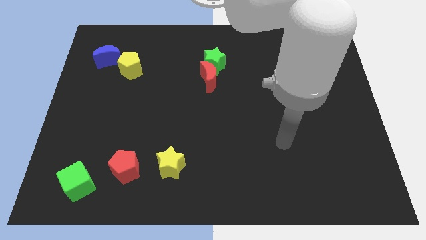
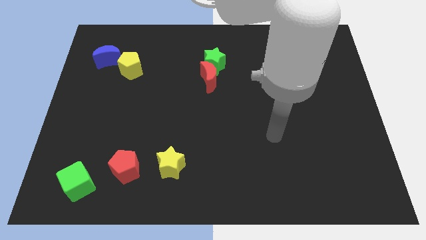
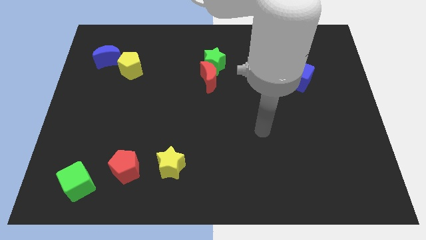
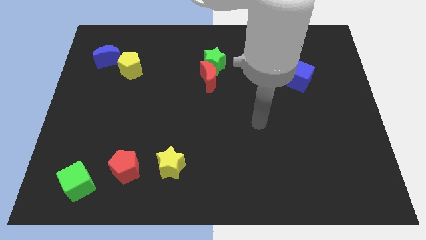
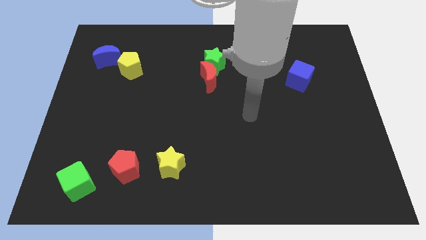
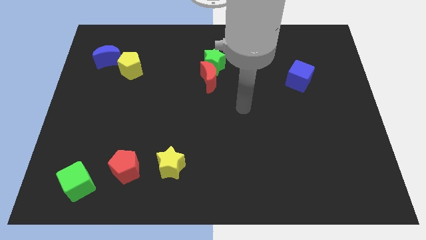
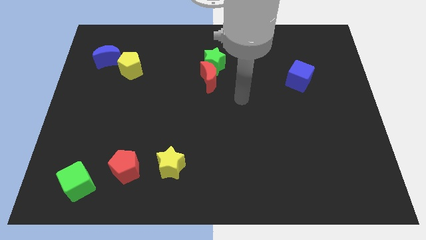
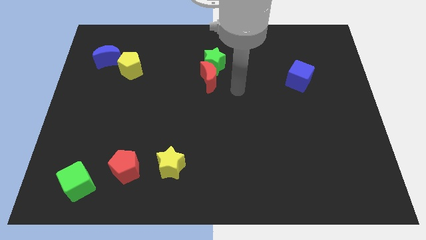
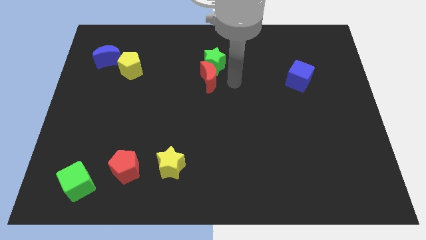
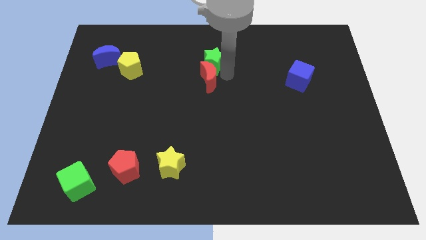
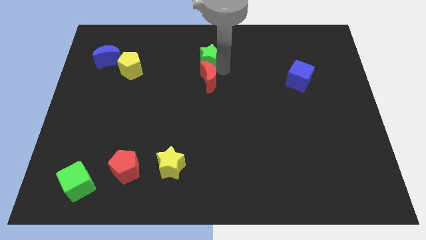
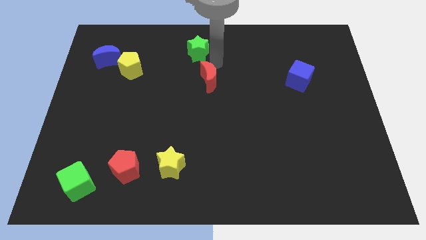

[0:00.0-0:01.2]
separate the red moon from the green star

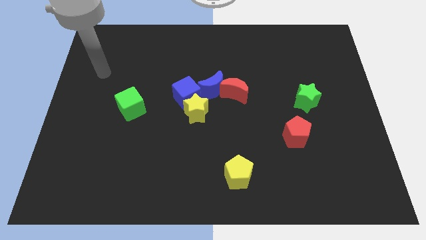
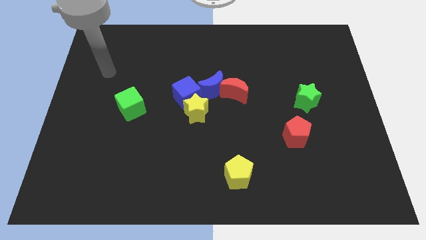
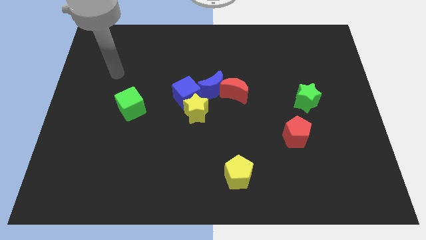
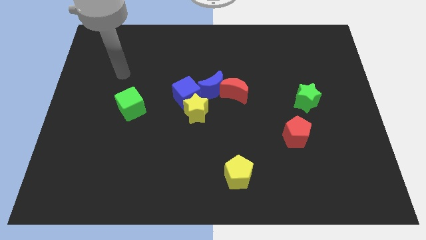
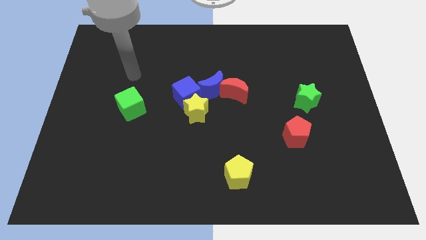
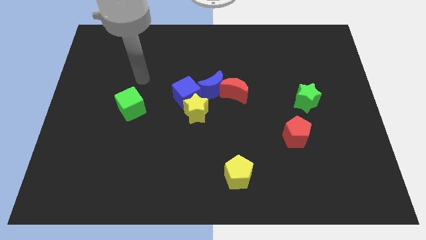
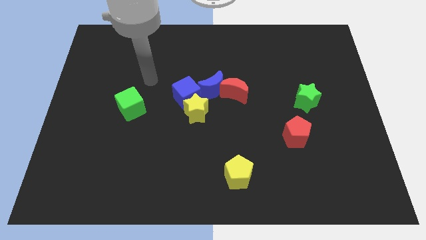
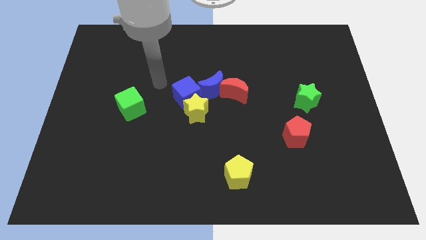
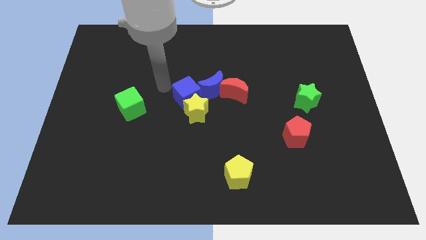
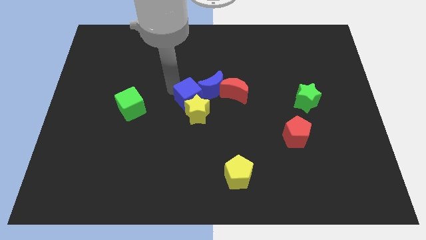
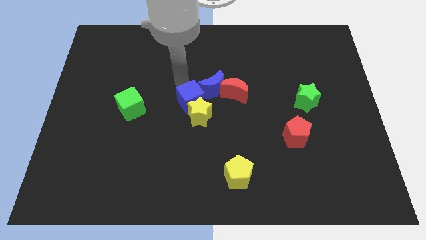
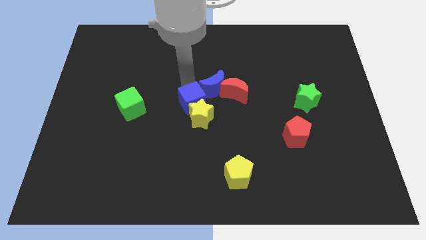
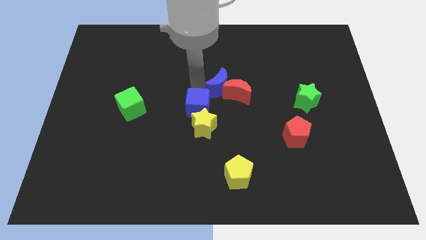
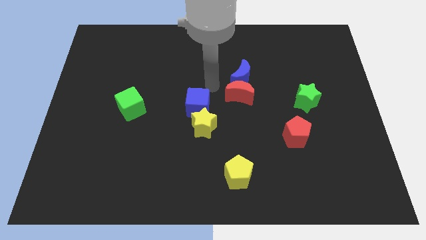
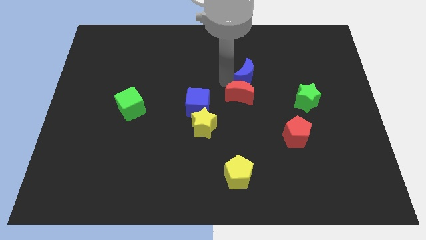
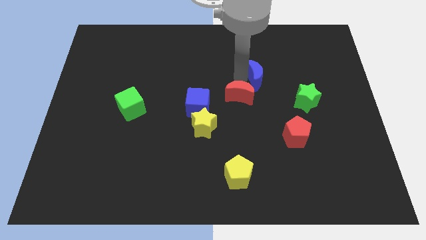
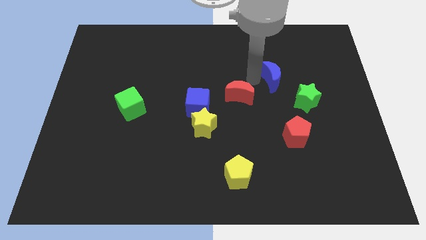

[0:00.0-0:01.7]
move the red moon away from the blue moon

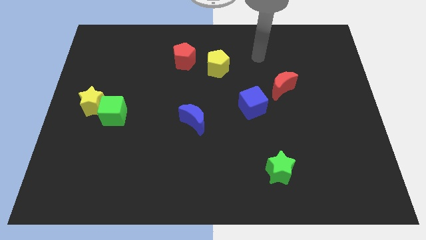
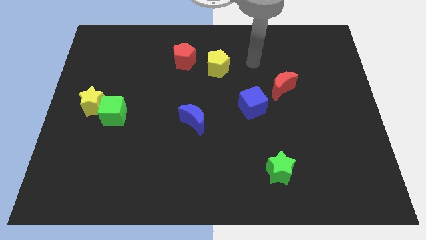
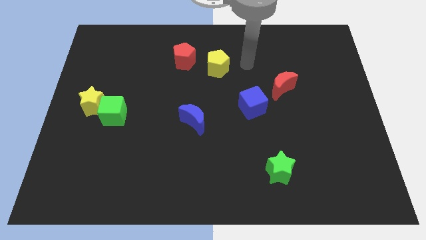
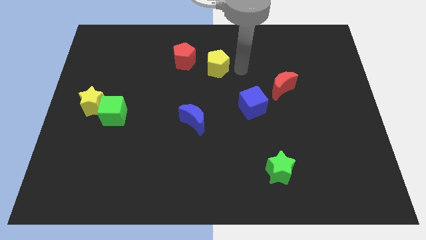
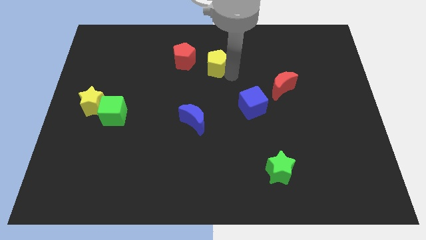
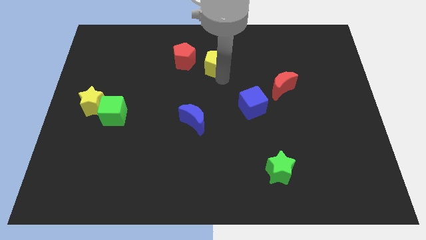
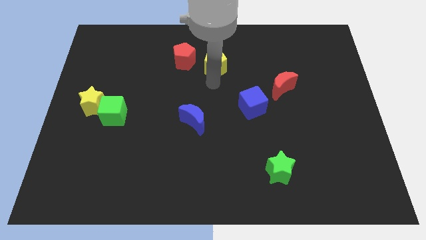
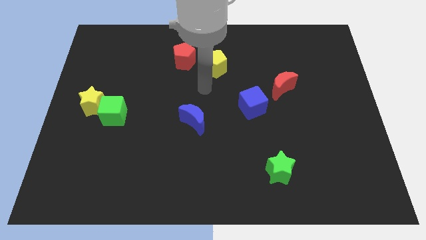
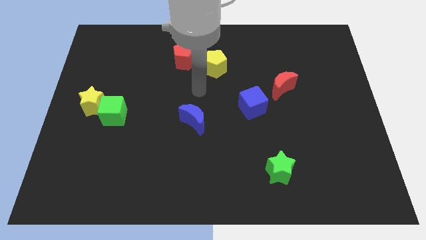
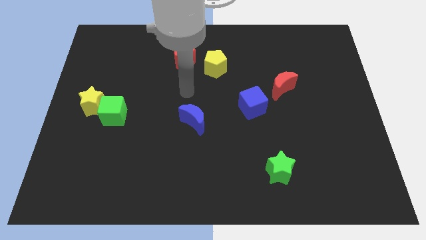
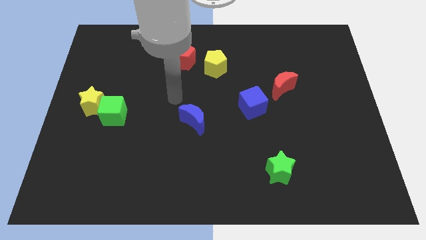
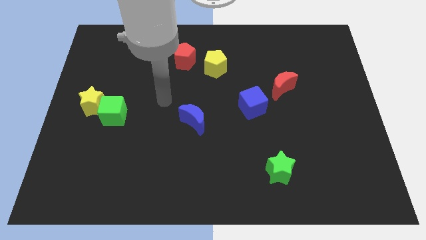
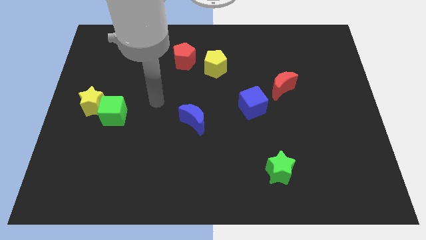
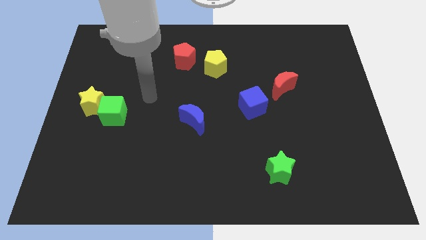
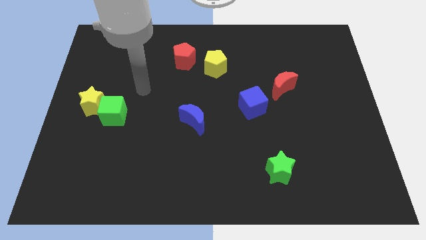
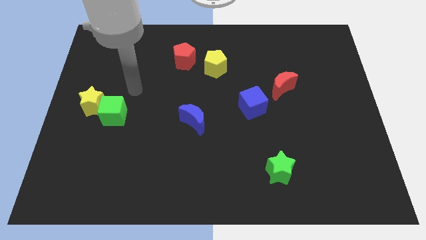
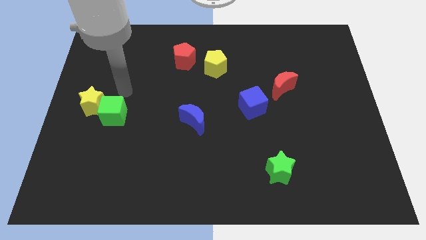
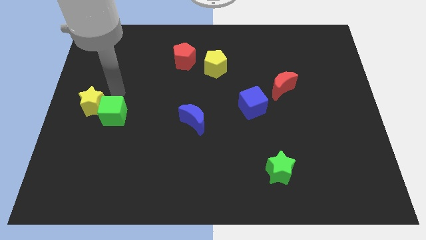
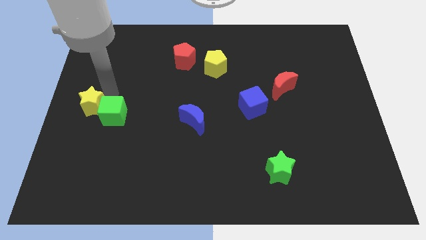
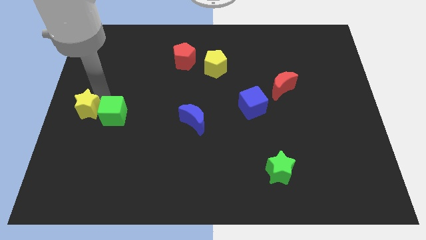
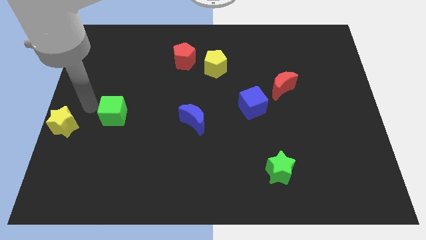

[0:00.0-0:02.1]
move the green cube away from the yellow star

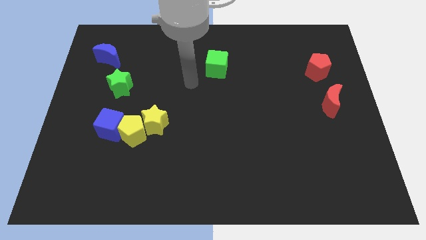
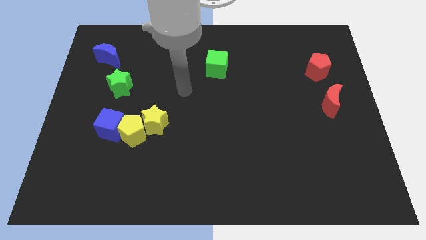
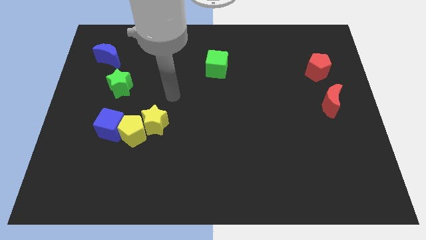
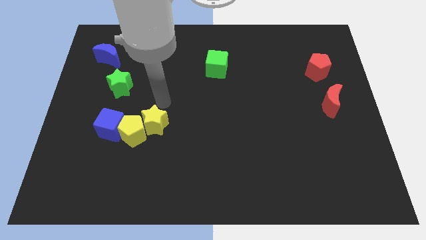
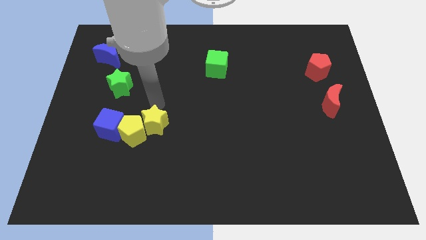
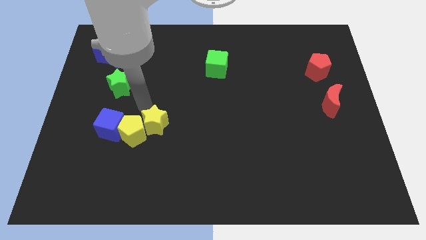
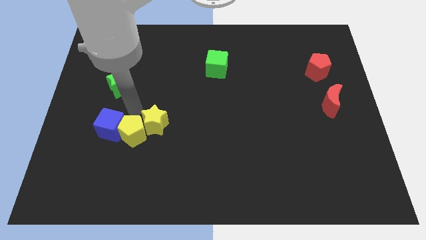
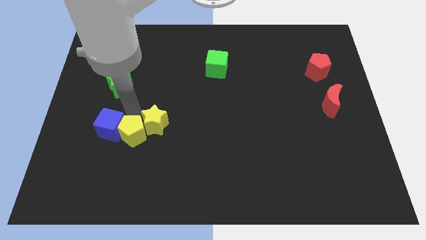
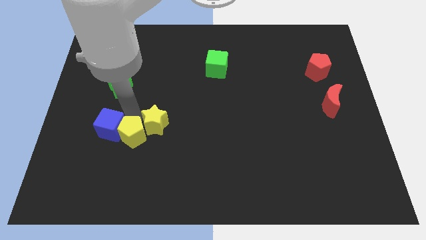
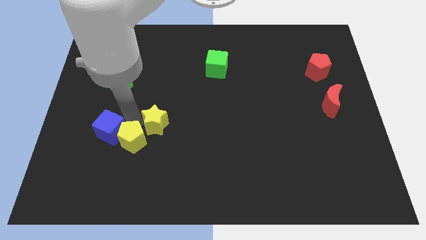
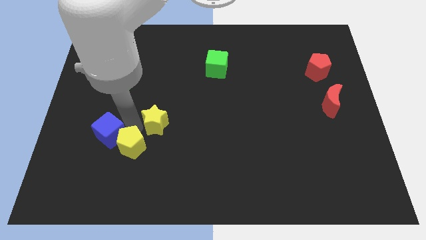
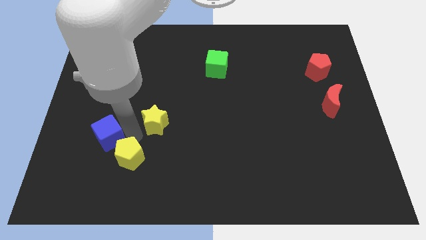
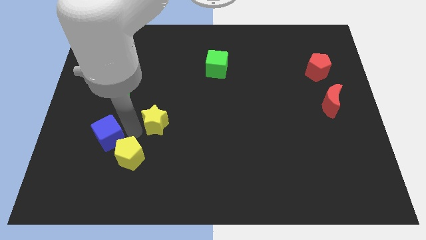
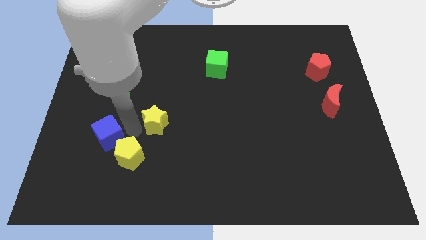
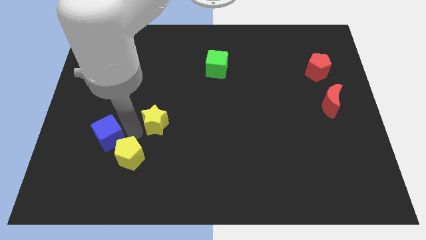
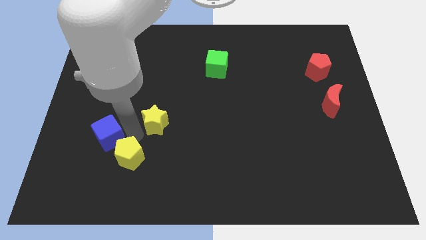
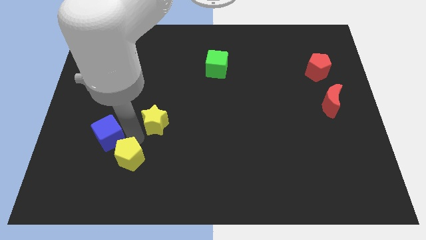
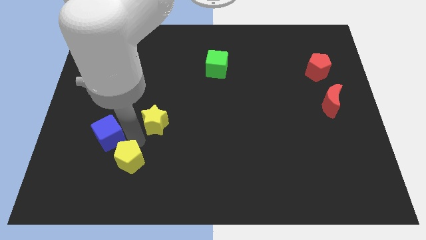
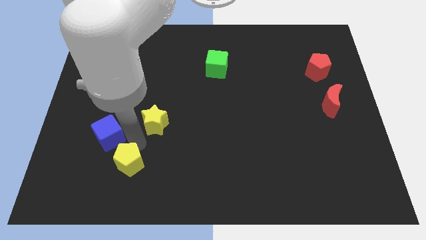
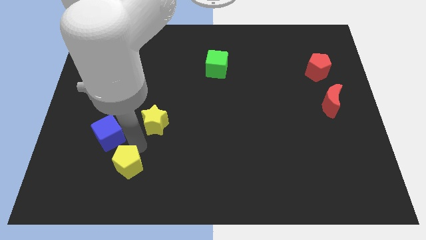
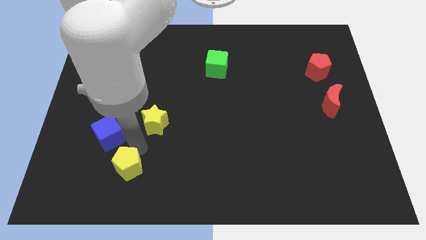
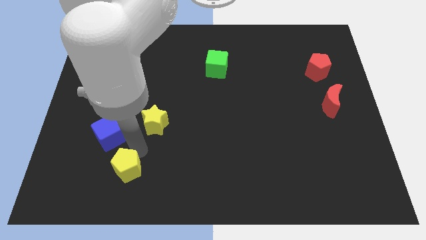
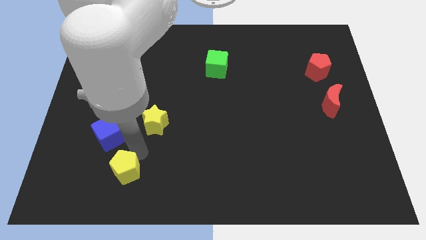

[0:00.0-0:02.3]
move the yellow pentagon away from the yellow star and blue cube

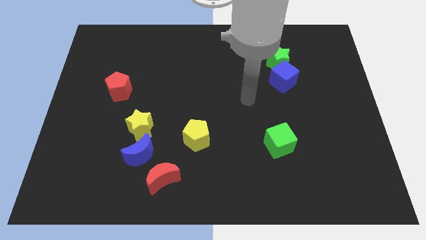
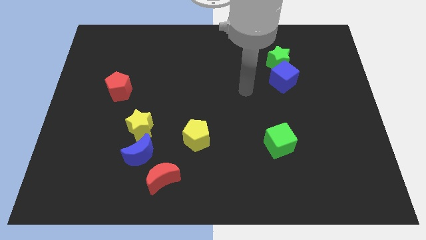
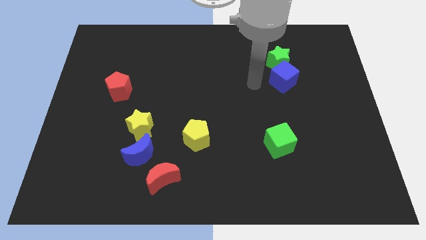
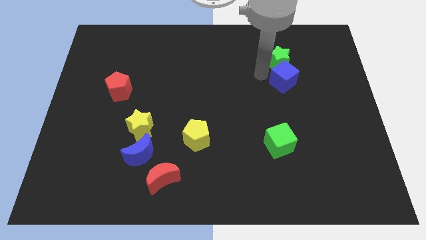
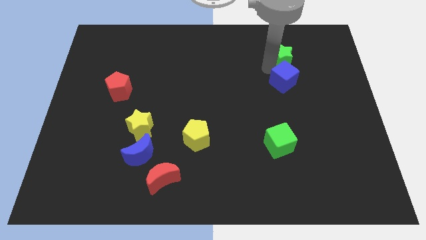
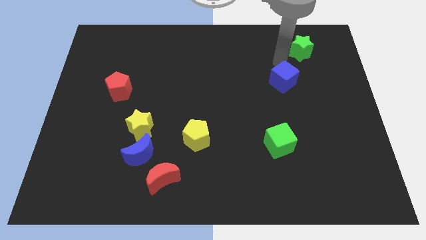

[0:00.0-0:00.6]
pull the blue cube apart from the green star

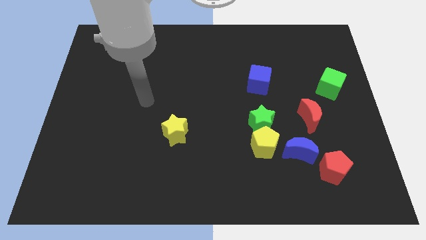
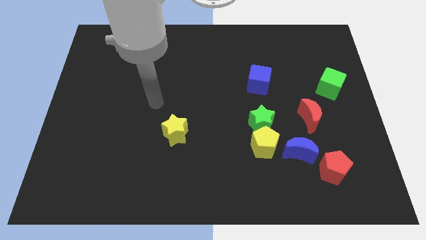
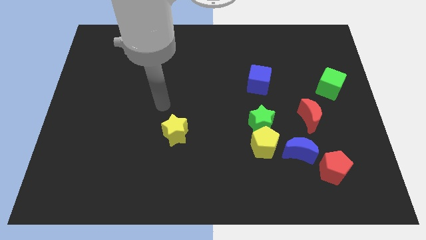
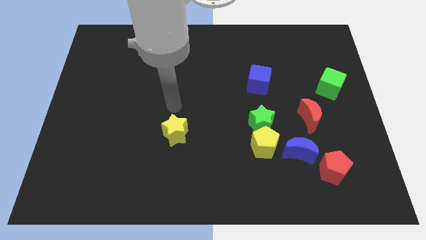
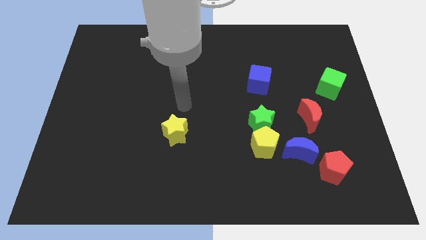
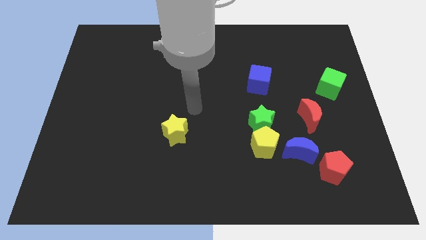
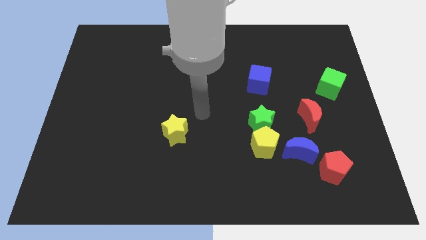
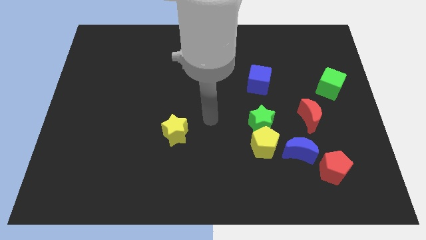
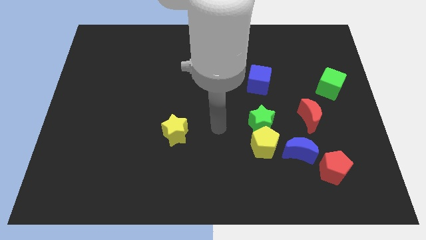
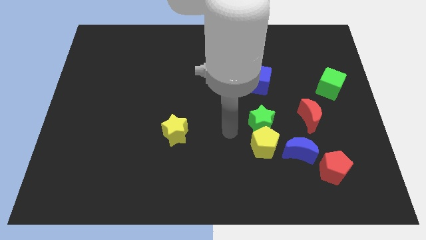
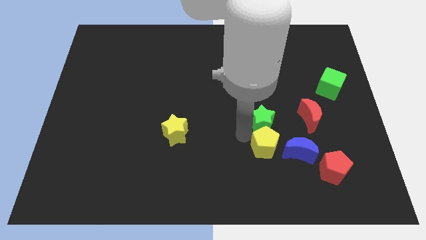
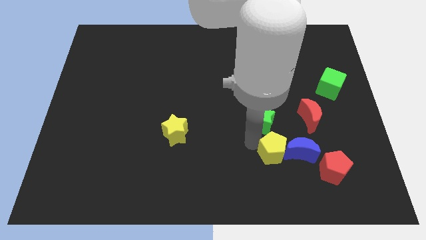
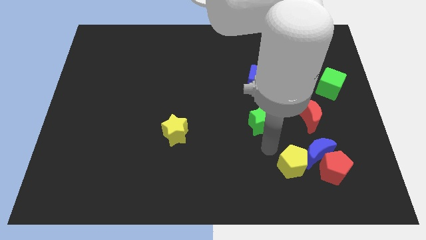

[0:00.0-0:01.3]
move the green star away from the yellow pentagon

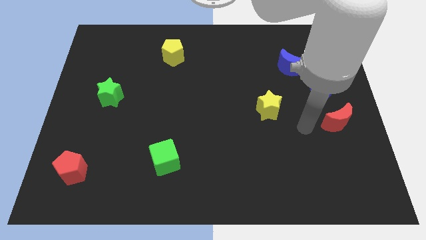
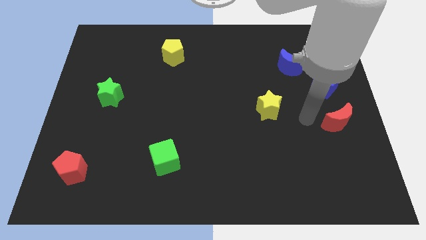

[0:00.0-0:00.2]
pull the blue moon apart from the blue cube
